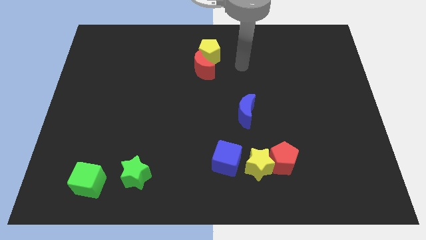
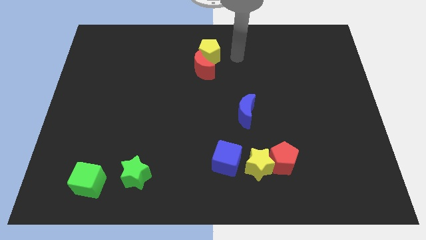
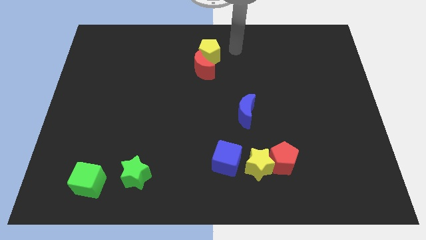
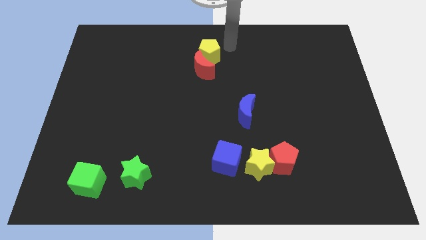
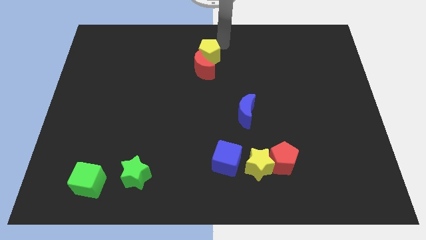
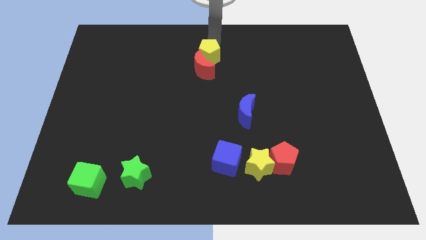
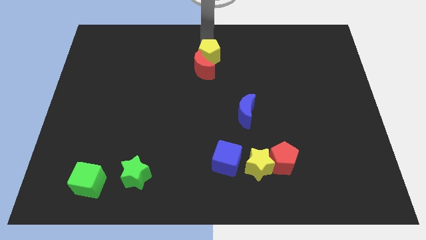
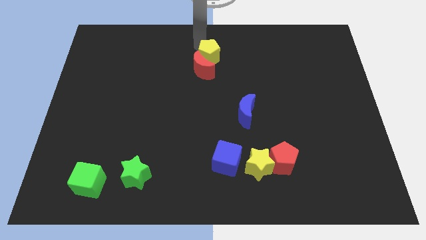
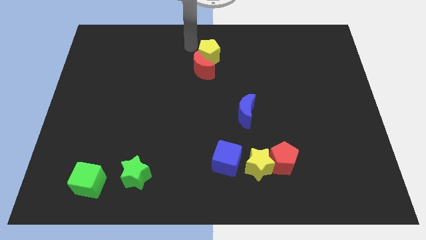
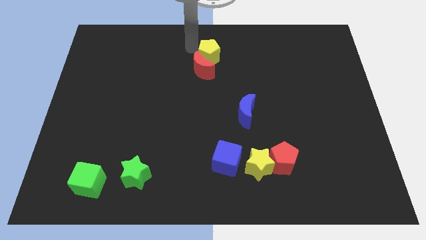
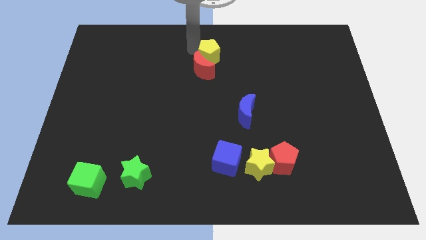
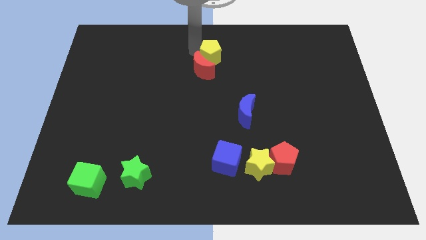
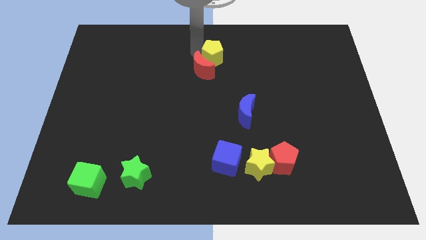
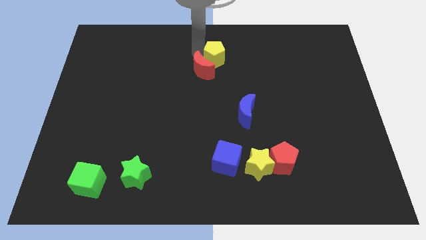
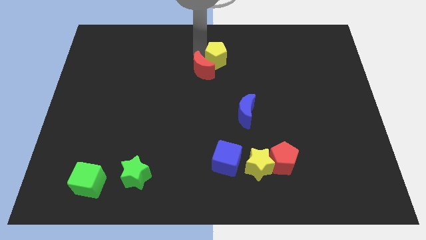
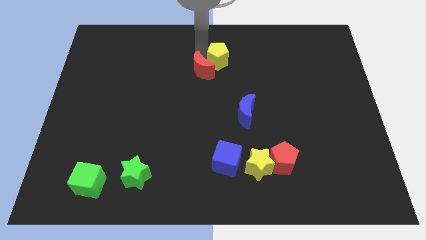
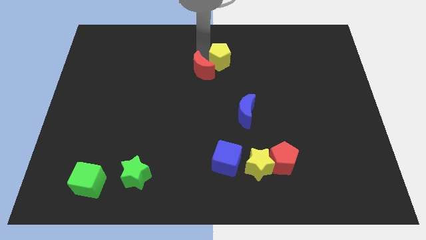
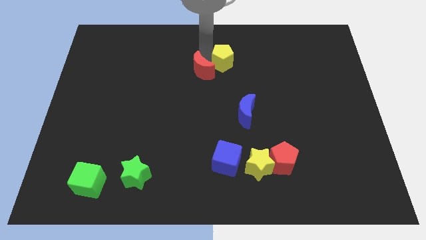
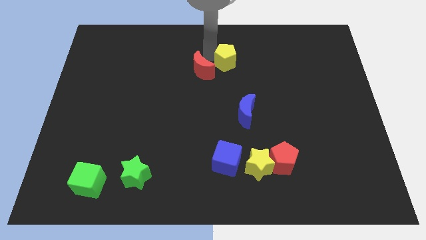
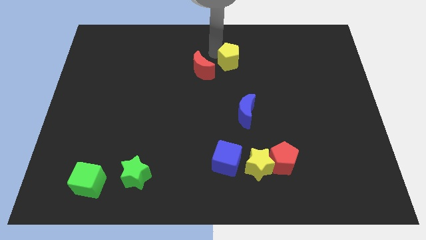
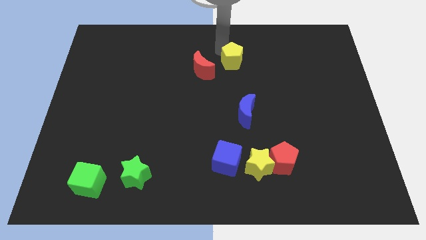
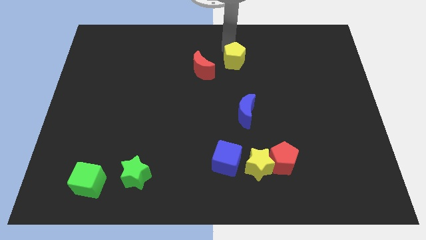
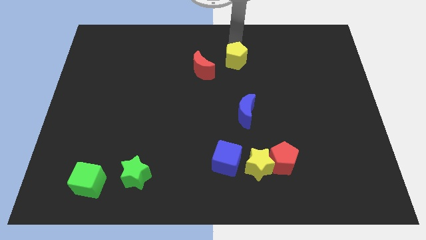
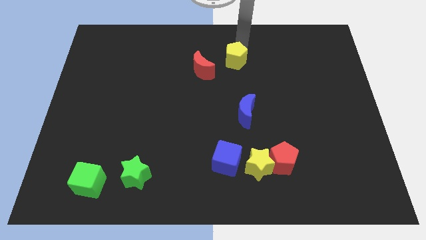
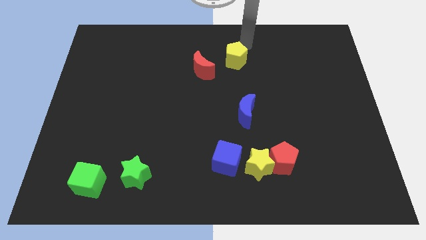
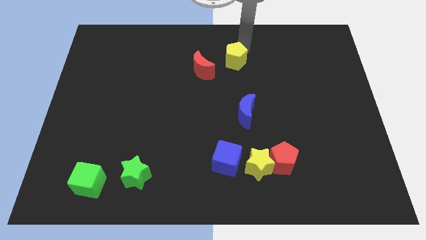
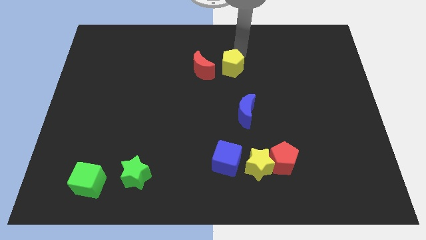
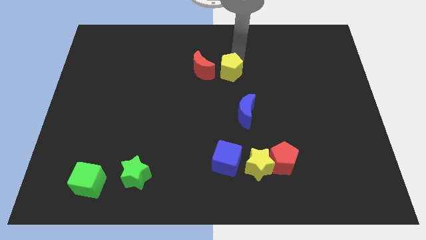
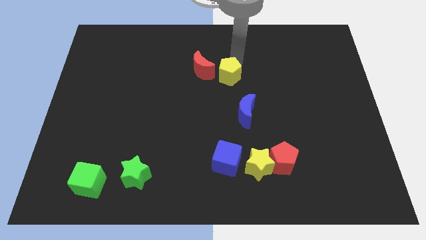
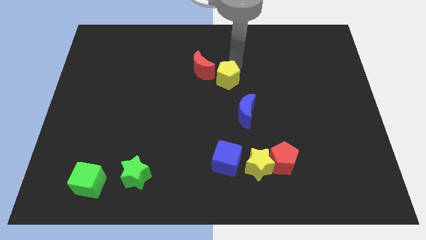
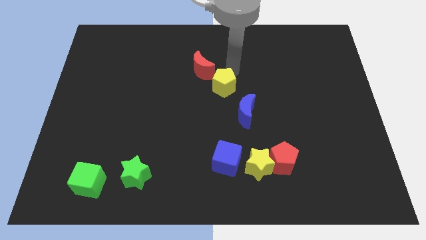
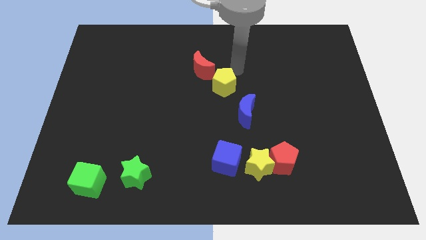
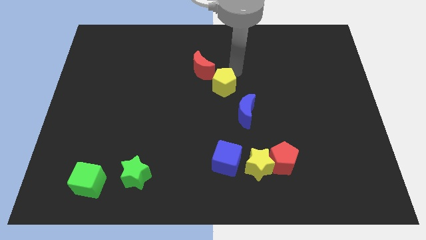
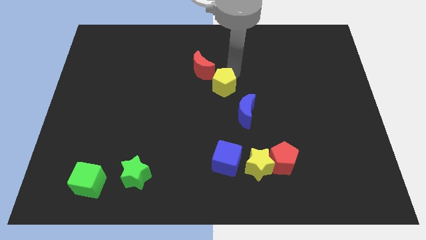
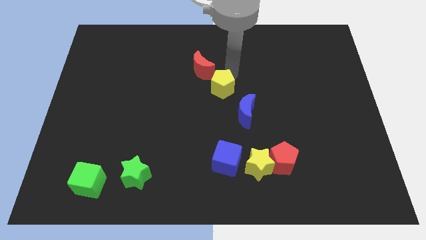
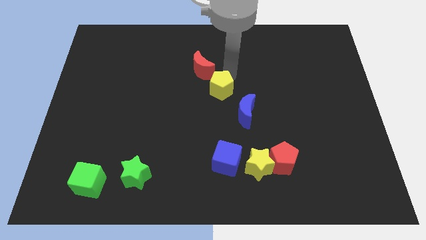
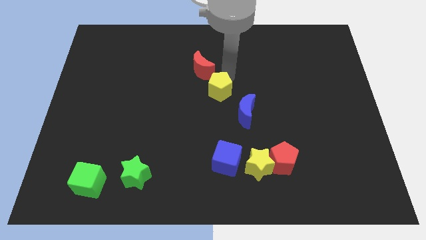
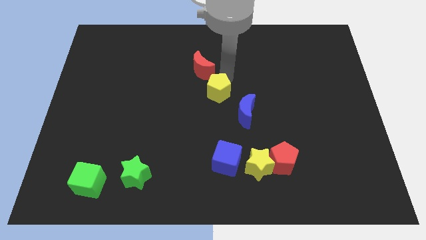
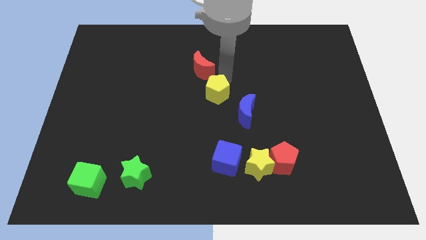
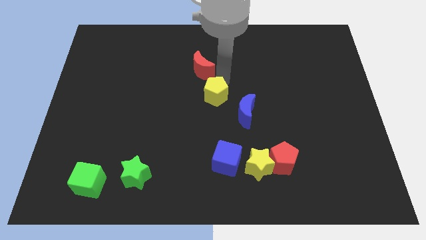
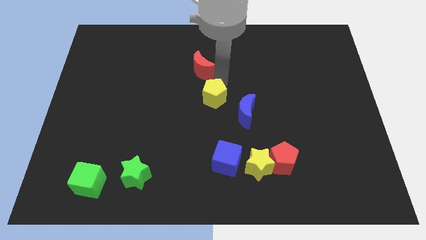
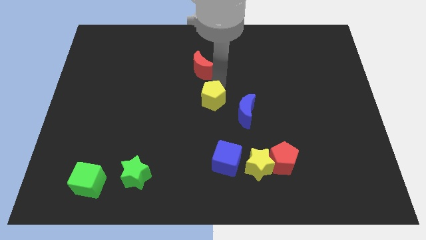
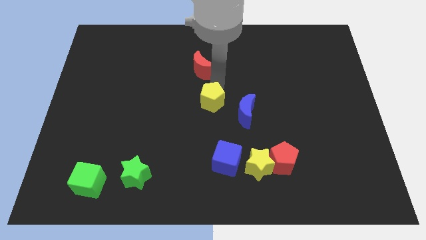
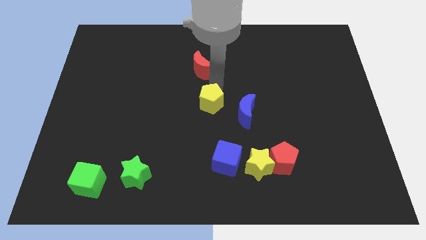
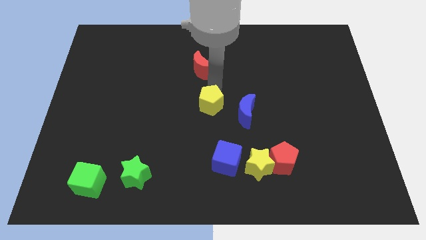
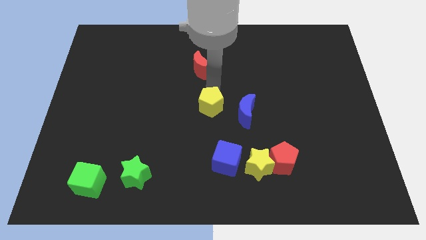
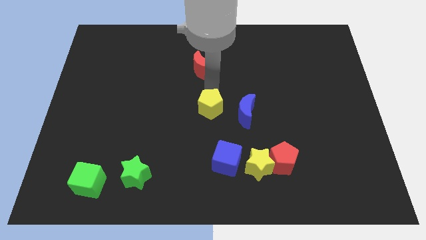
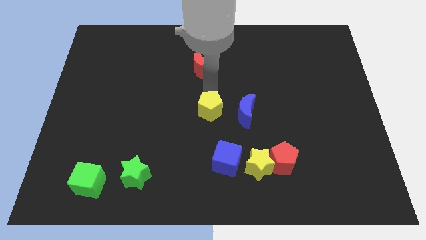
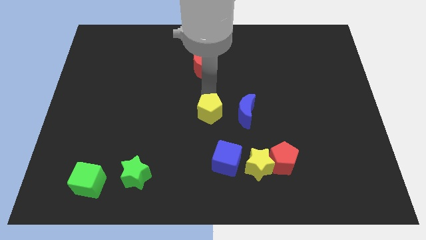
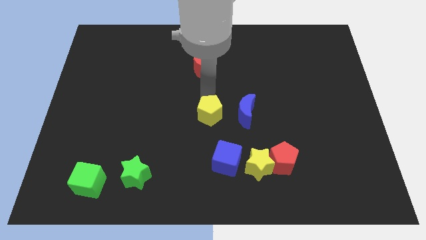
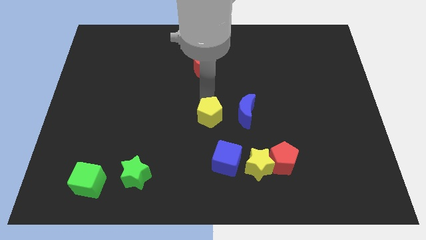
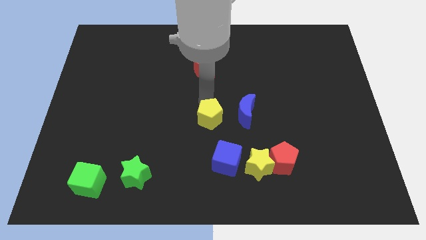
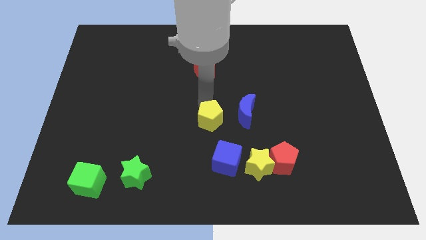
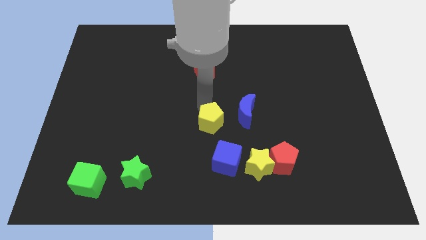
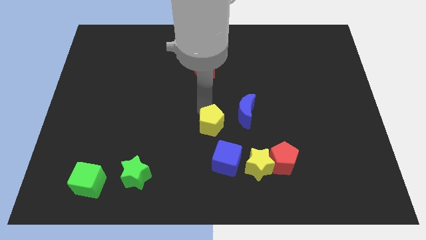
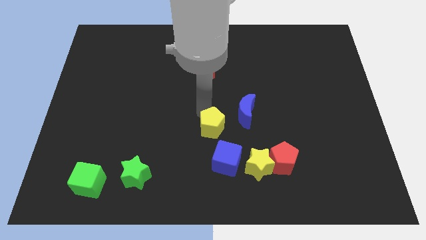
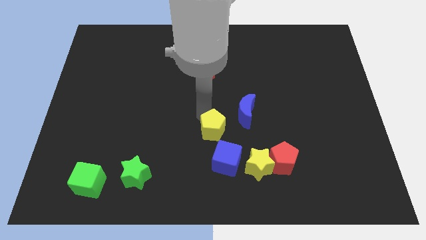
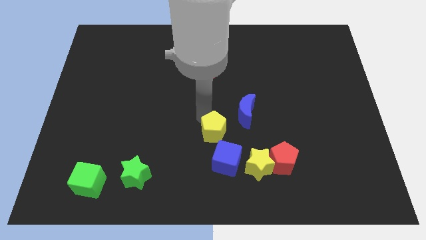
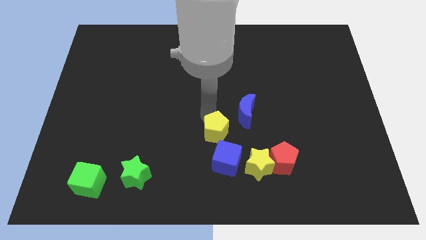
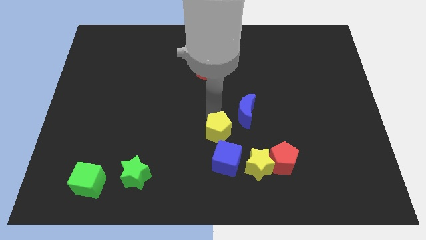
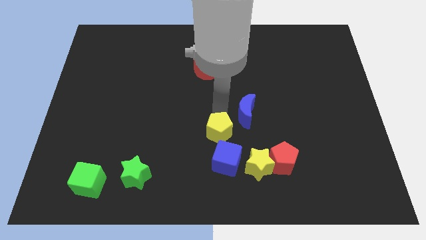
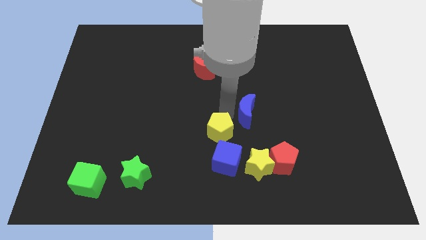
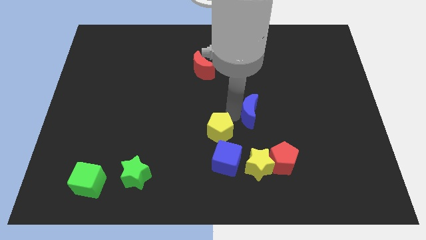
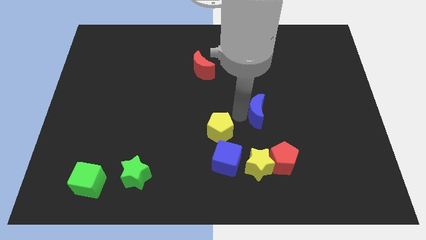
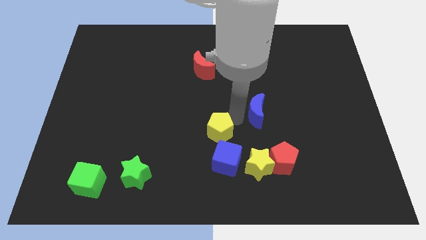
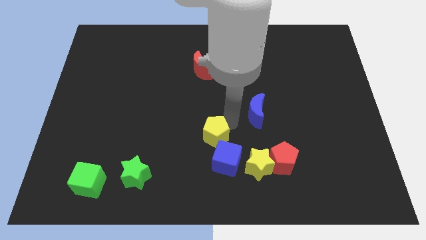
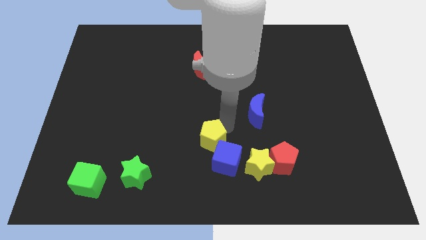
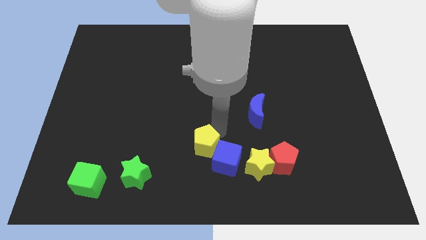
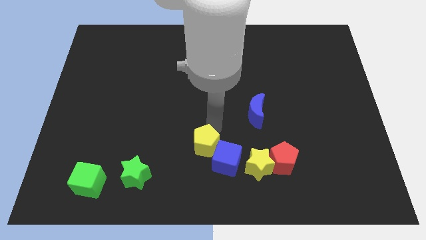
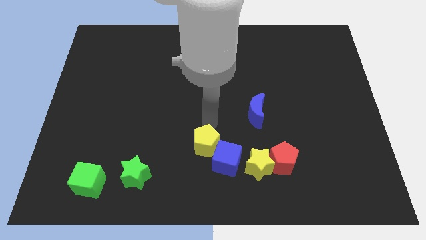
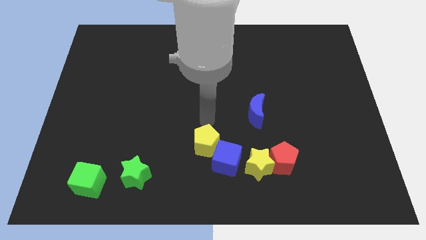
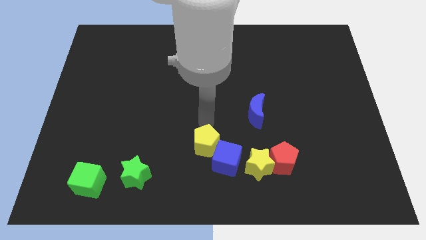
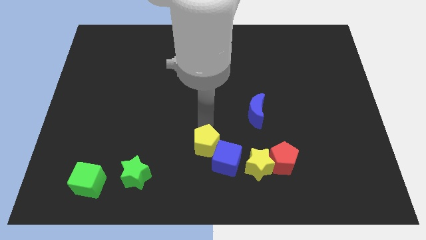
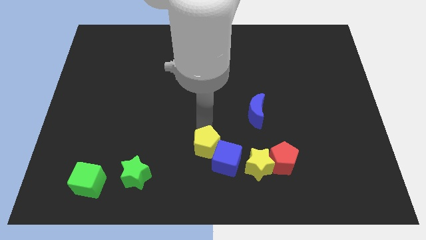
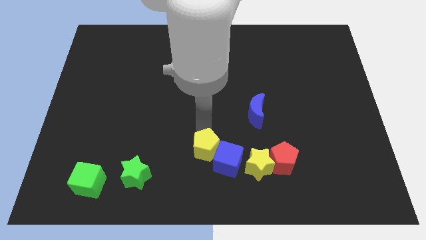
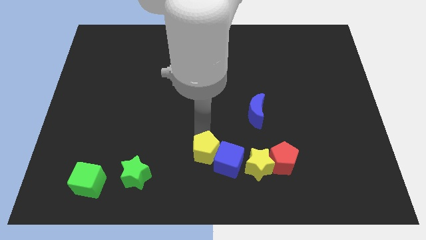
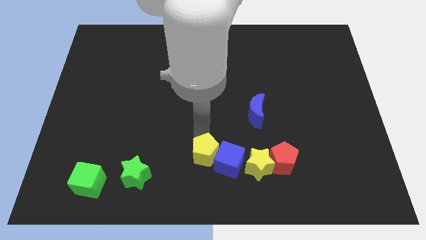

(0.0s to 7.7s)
move the yellow pentagon to the bottom
